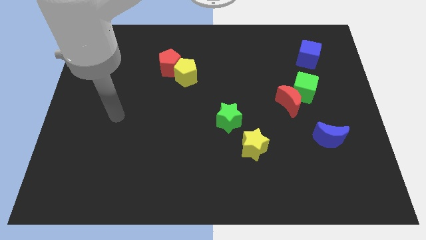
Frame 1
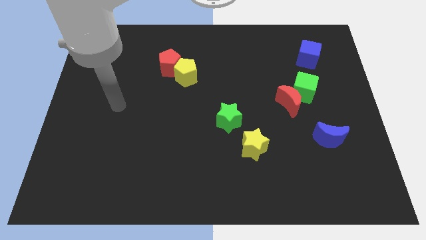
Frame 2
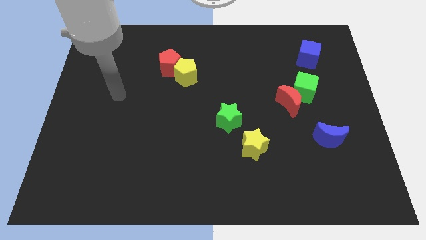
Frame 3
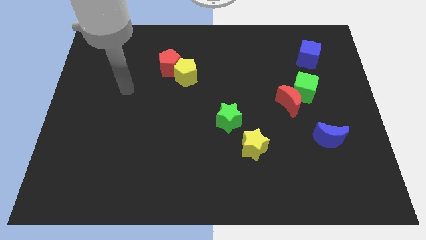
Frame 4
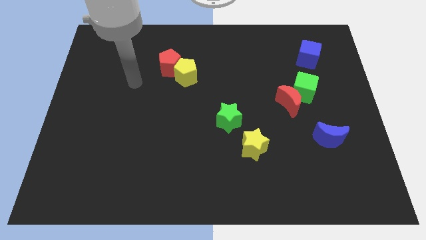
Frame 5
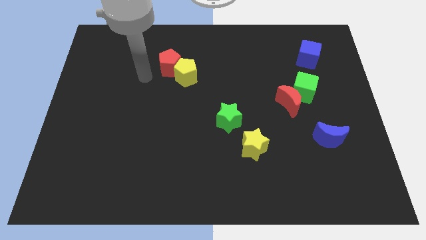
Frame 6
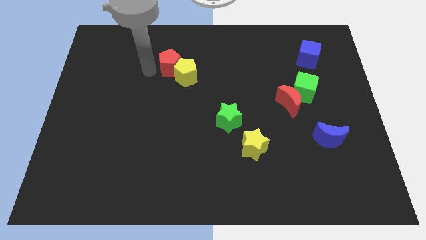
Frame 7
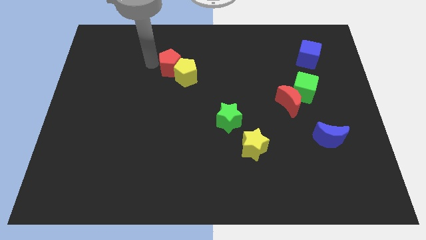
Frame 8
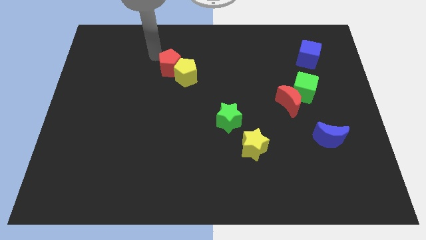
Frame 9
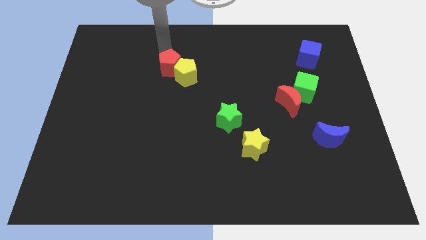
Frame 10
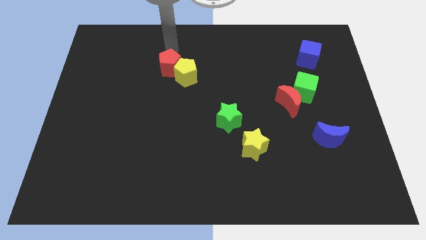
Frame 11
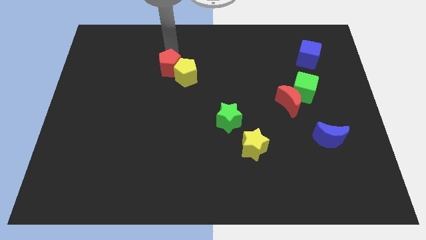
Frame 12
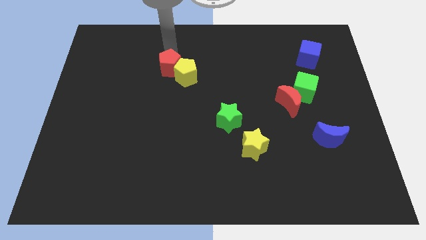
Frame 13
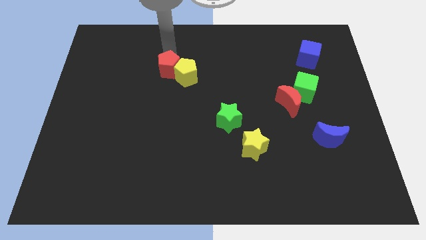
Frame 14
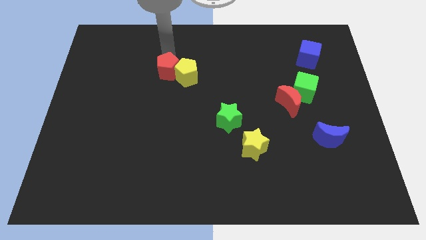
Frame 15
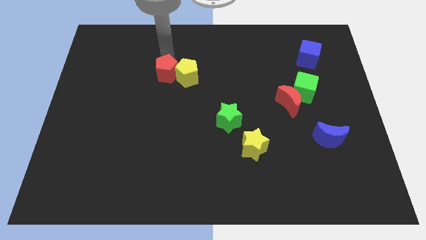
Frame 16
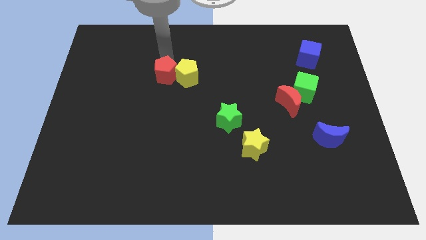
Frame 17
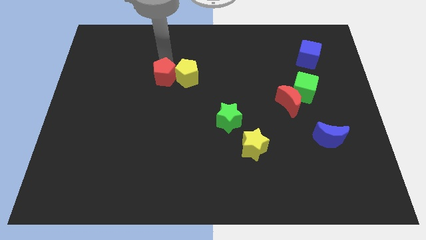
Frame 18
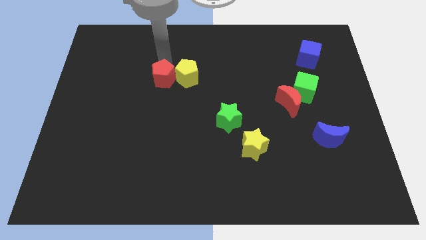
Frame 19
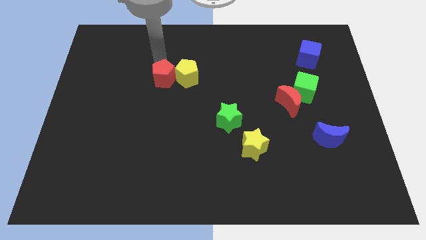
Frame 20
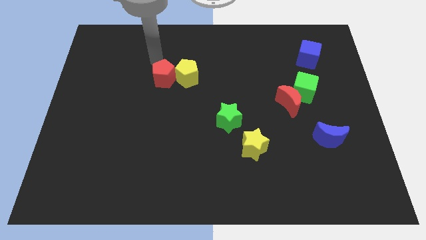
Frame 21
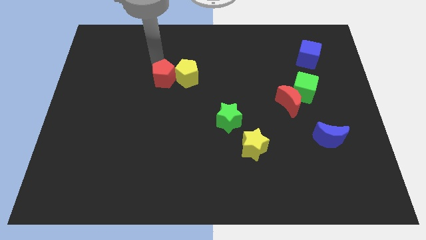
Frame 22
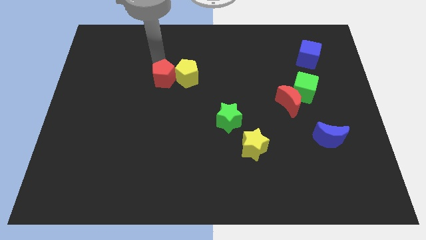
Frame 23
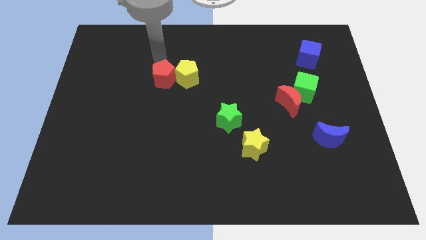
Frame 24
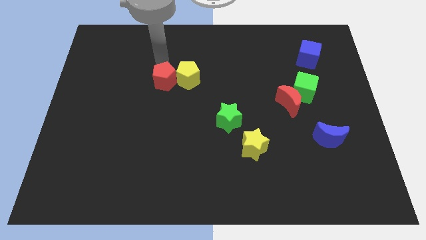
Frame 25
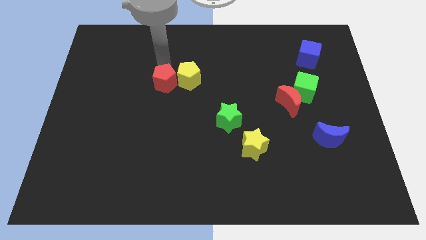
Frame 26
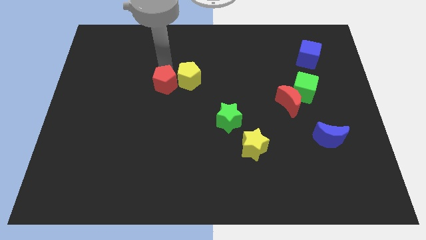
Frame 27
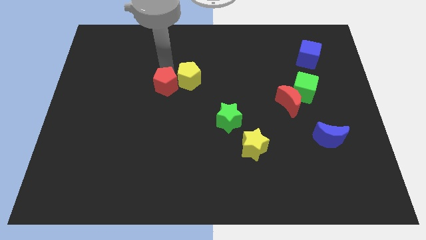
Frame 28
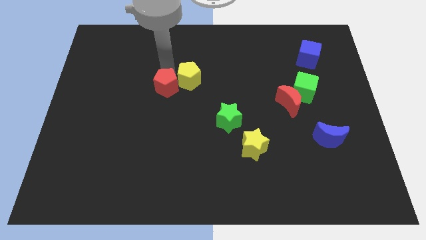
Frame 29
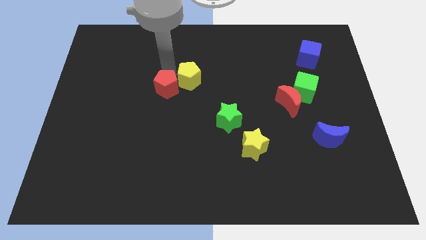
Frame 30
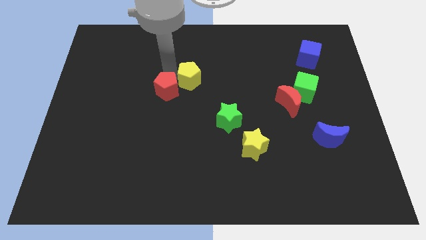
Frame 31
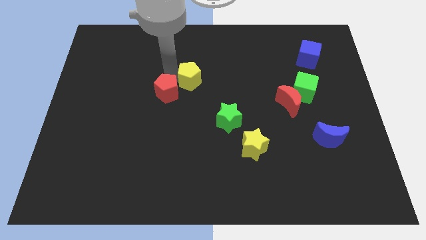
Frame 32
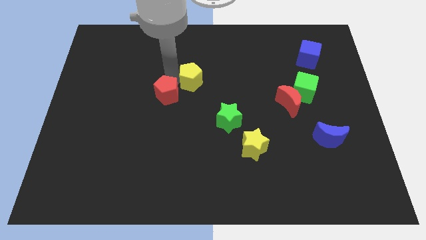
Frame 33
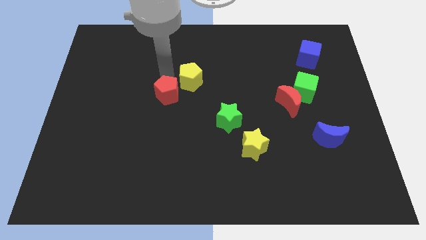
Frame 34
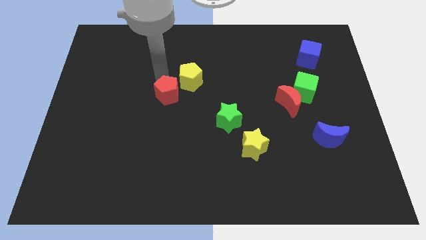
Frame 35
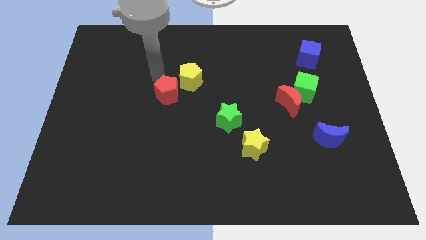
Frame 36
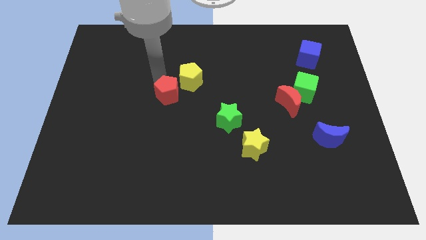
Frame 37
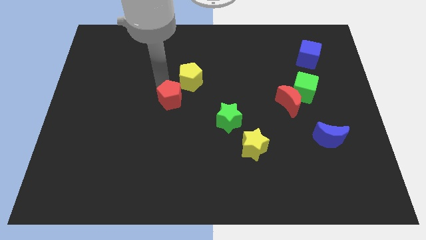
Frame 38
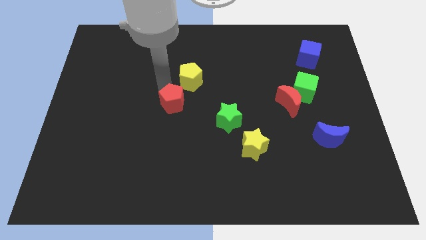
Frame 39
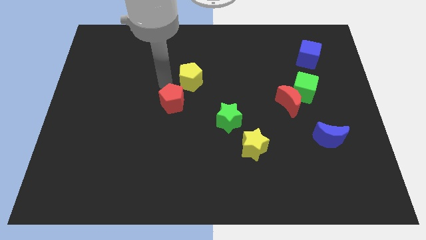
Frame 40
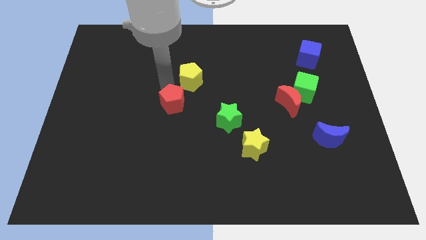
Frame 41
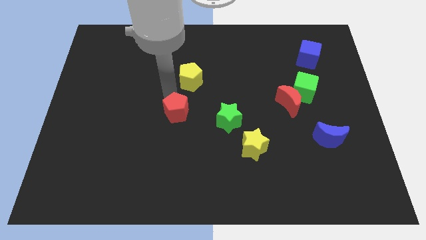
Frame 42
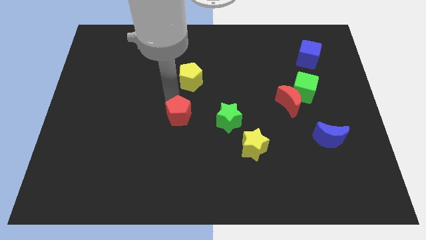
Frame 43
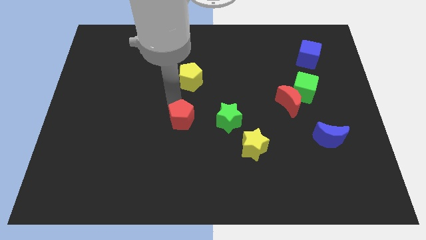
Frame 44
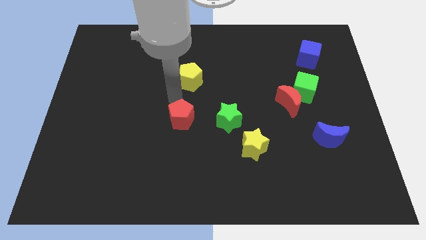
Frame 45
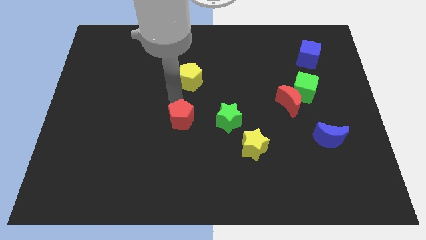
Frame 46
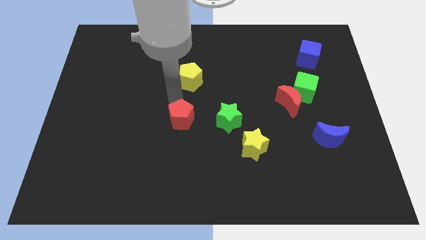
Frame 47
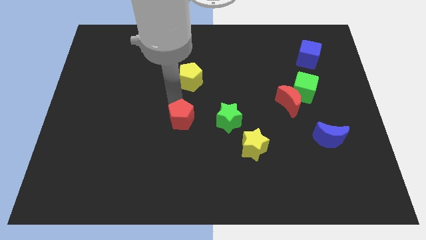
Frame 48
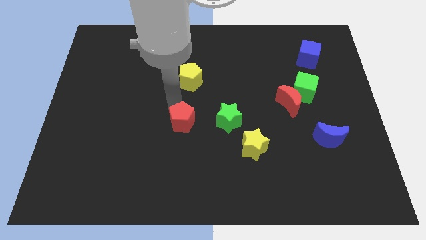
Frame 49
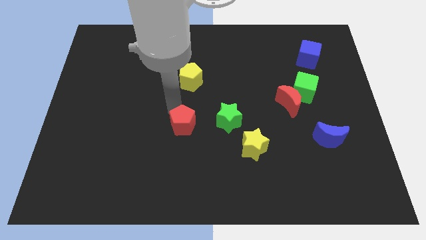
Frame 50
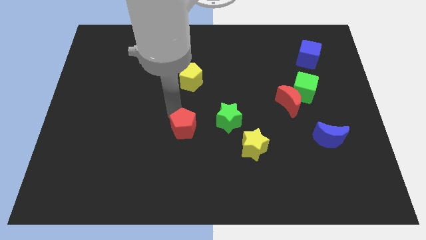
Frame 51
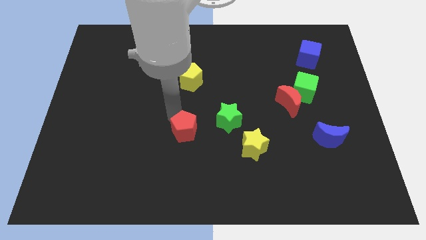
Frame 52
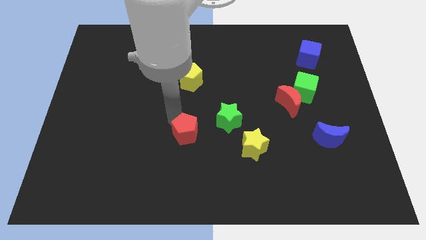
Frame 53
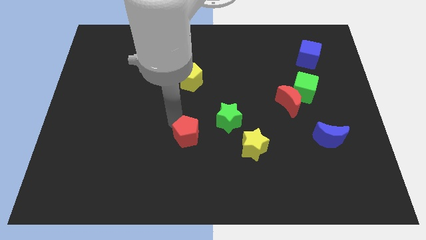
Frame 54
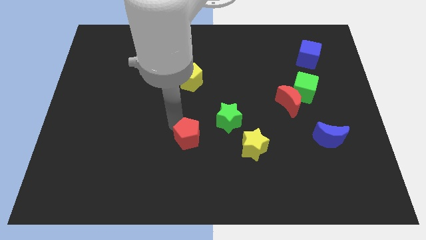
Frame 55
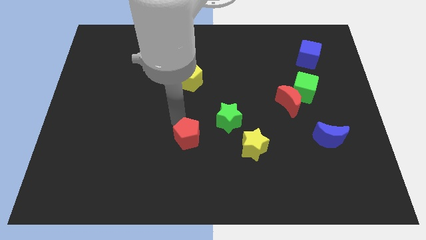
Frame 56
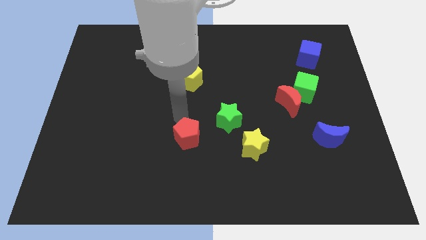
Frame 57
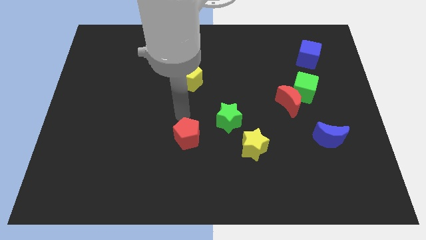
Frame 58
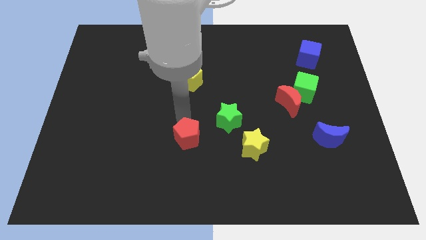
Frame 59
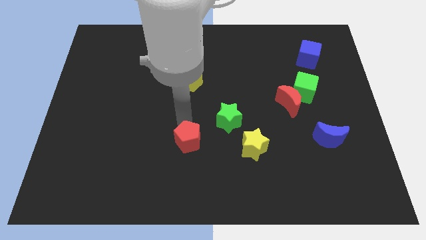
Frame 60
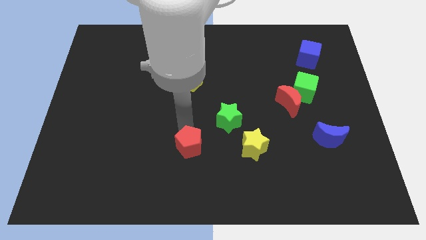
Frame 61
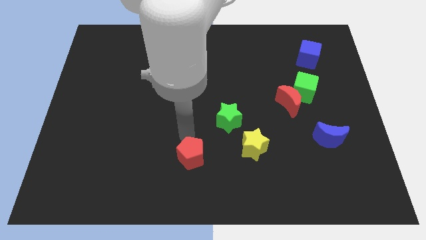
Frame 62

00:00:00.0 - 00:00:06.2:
slide the red pentagon to the bottom side

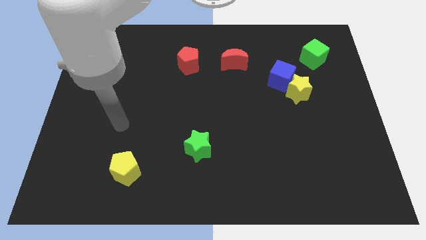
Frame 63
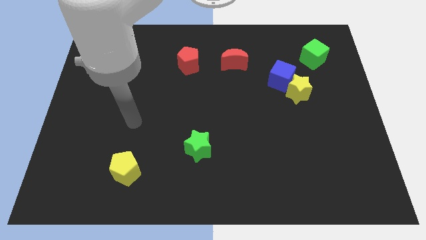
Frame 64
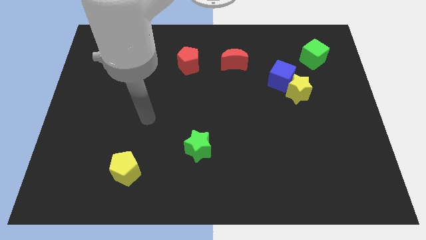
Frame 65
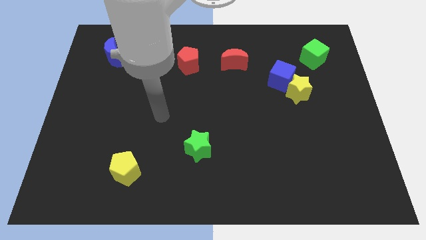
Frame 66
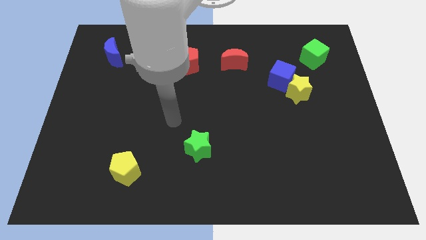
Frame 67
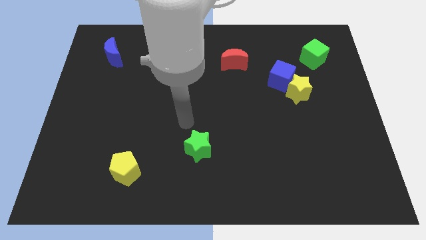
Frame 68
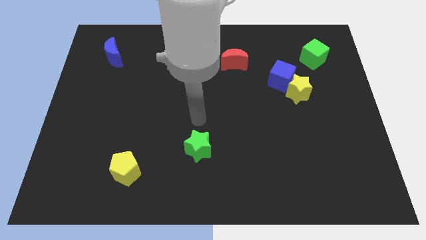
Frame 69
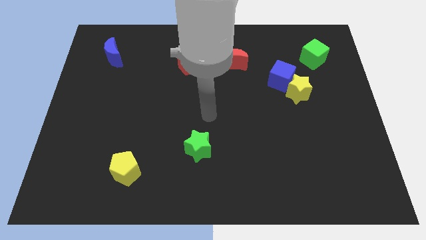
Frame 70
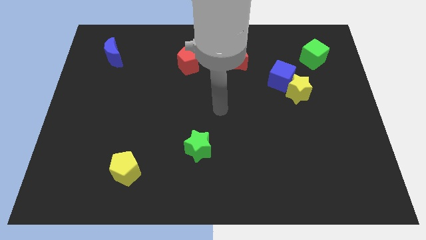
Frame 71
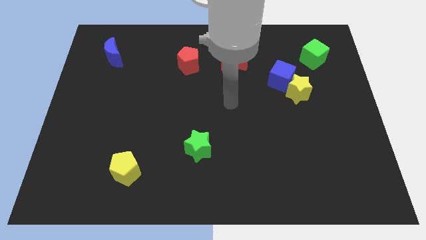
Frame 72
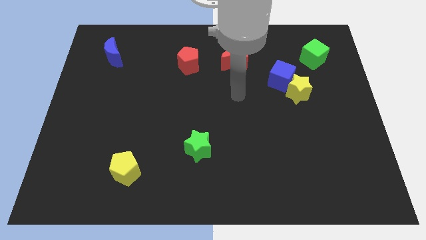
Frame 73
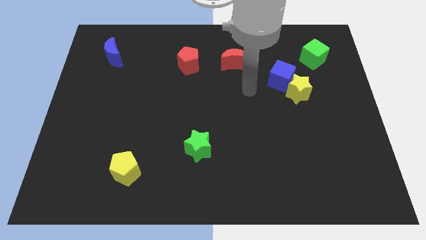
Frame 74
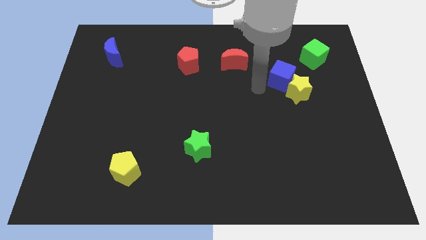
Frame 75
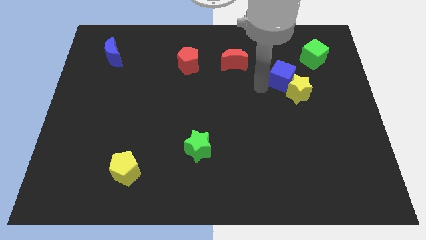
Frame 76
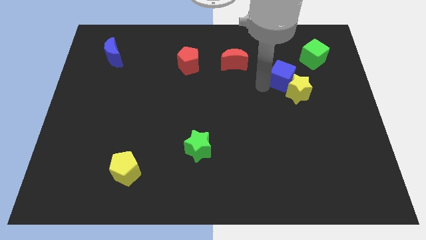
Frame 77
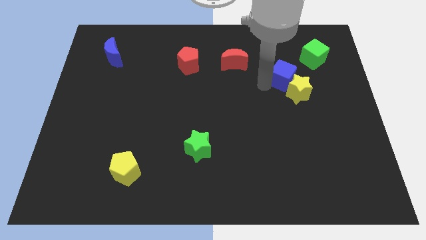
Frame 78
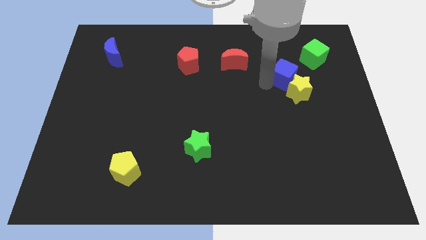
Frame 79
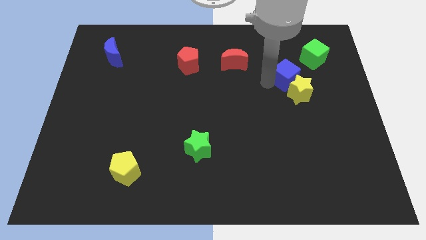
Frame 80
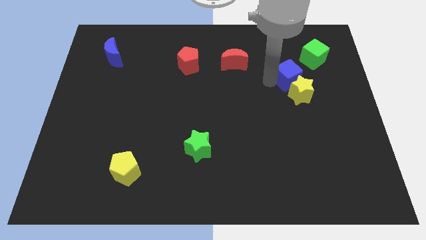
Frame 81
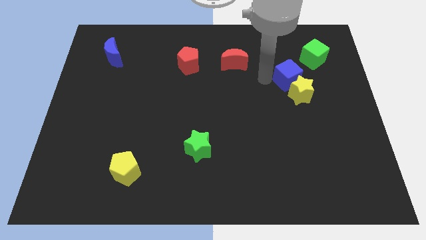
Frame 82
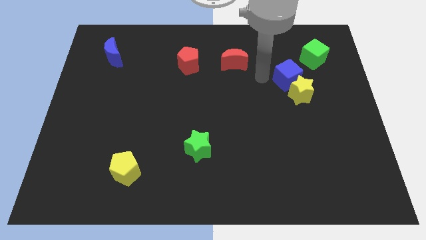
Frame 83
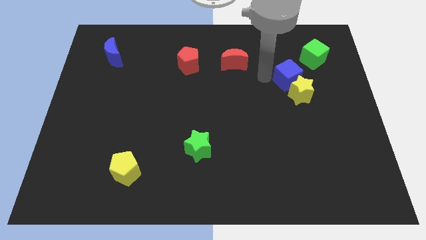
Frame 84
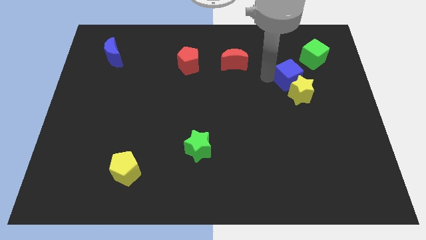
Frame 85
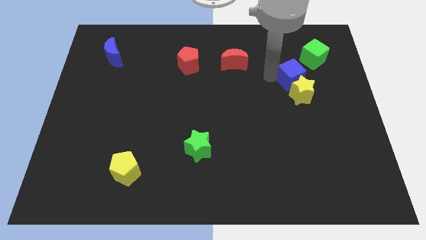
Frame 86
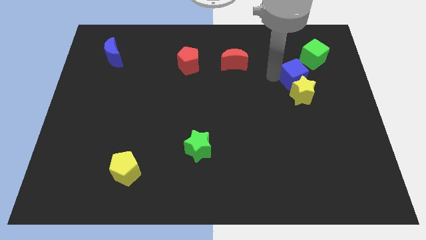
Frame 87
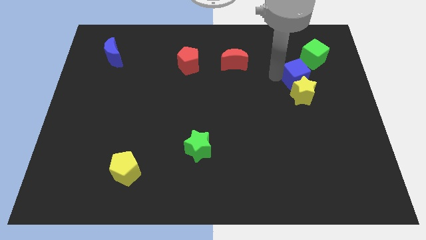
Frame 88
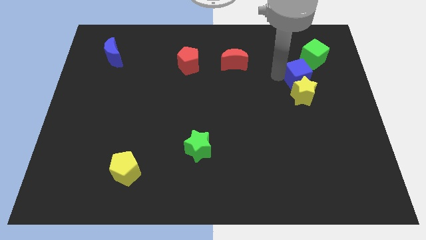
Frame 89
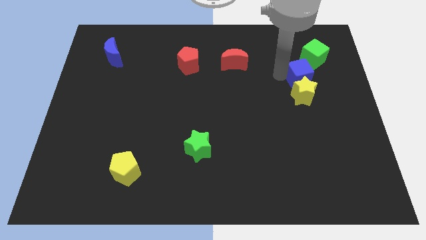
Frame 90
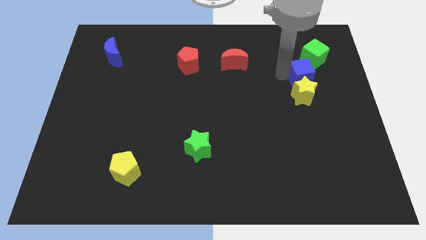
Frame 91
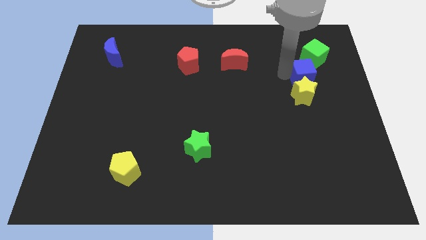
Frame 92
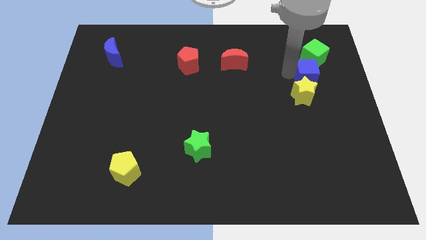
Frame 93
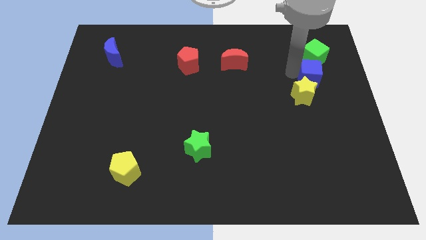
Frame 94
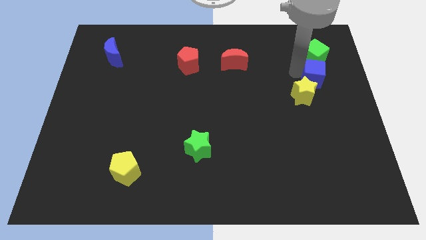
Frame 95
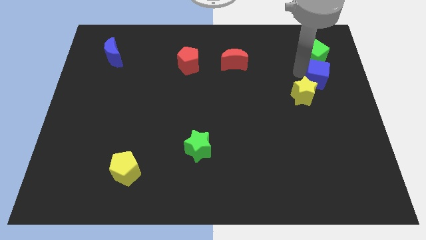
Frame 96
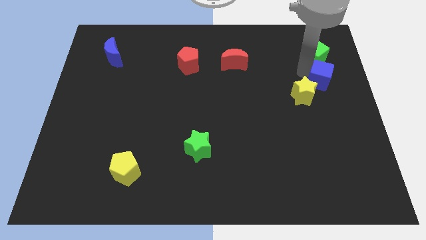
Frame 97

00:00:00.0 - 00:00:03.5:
slide the blue cube to the right side
